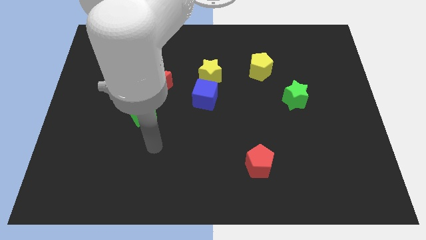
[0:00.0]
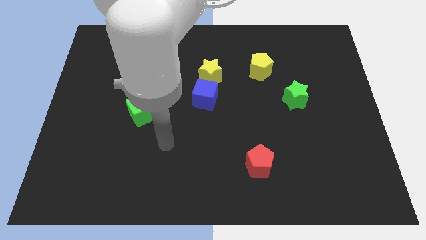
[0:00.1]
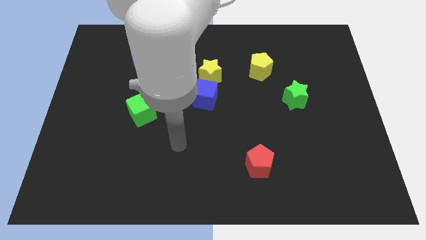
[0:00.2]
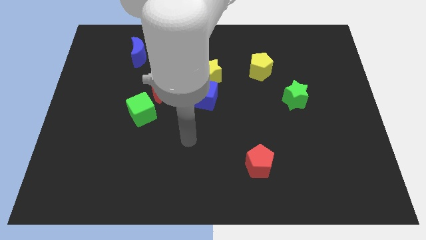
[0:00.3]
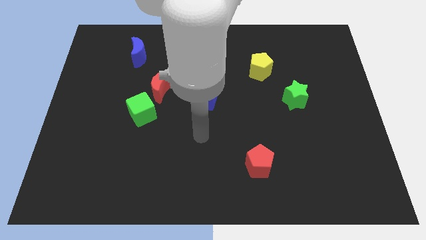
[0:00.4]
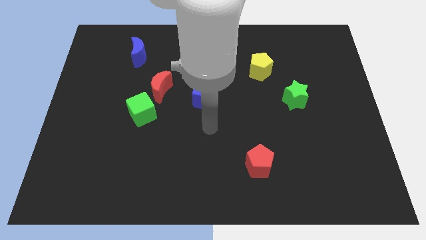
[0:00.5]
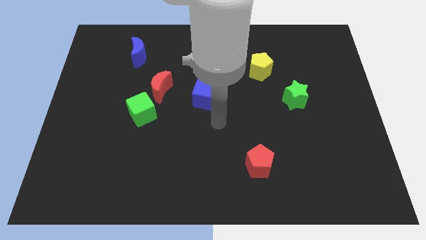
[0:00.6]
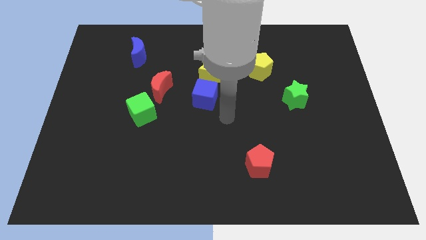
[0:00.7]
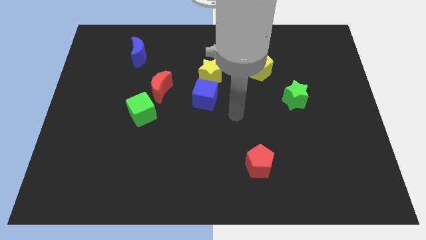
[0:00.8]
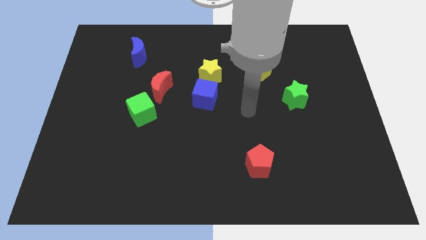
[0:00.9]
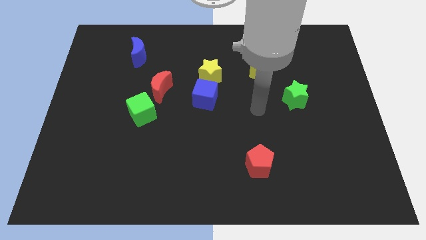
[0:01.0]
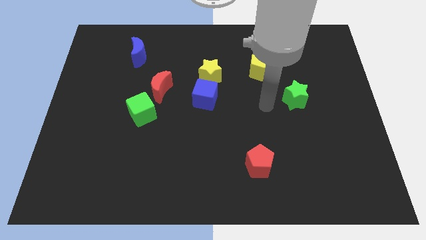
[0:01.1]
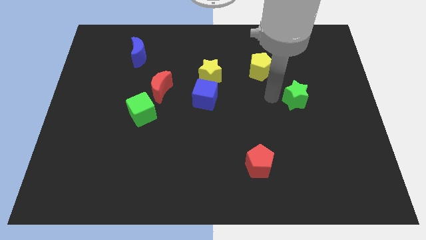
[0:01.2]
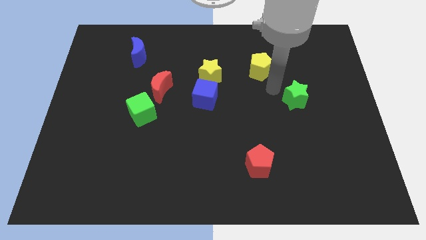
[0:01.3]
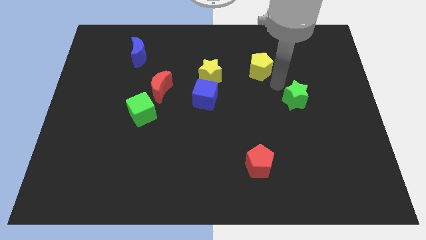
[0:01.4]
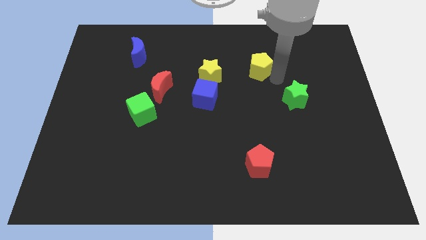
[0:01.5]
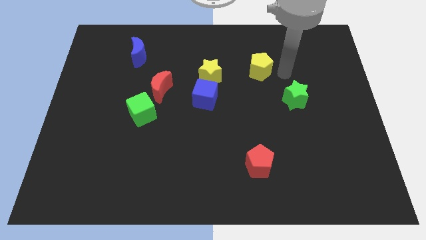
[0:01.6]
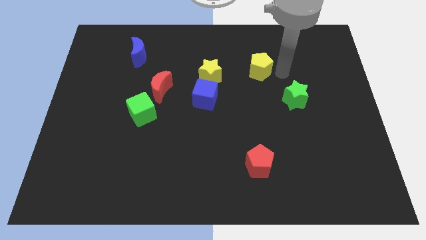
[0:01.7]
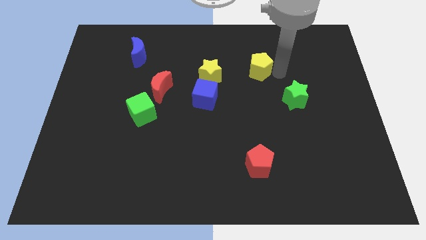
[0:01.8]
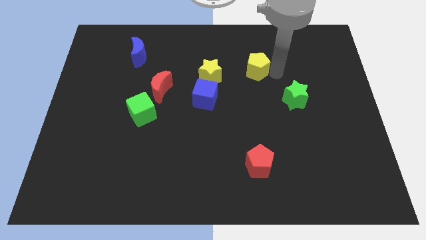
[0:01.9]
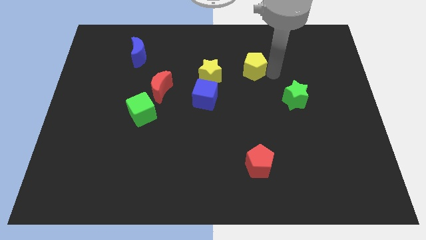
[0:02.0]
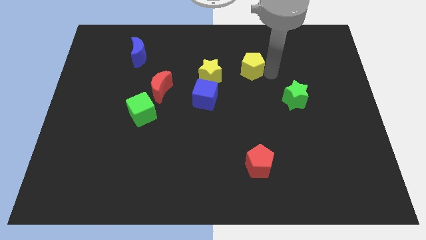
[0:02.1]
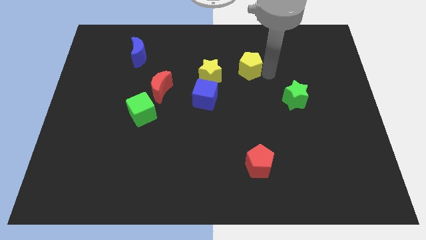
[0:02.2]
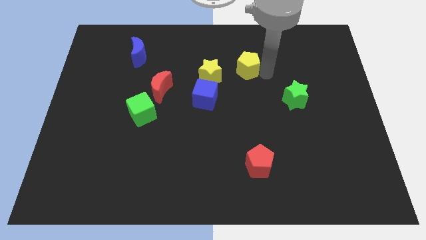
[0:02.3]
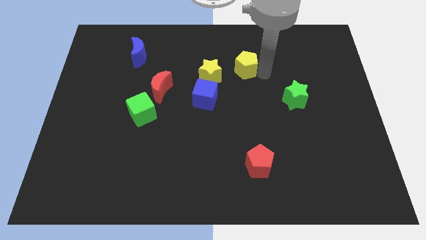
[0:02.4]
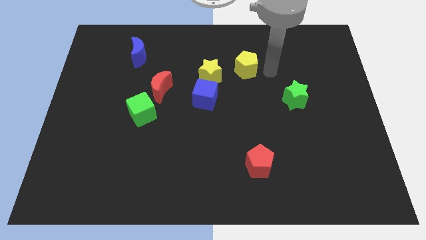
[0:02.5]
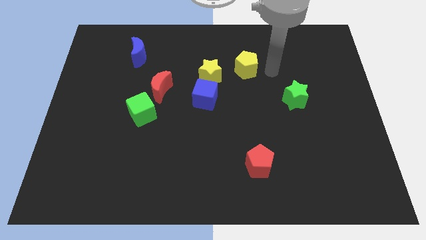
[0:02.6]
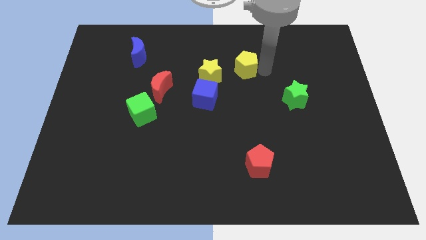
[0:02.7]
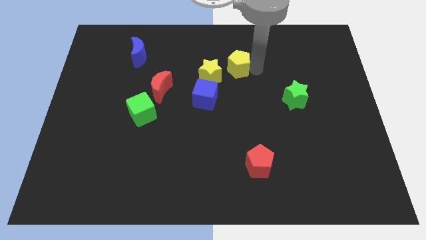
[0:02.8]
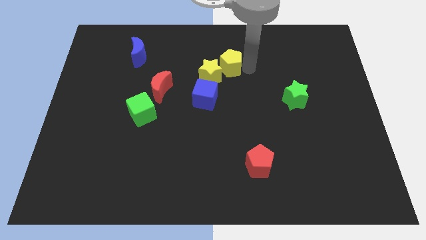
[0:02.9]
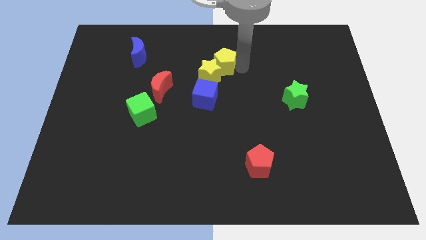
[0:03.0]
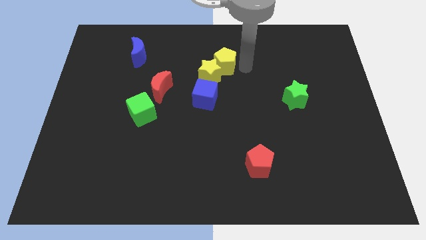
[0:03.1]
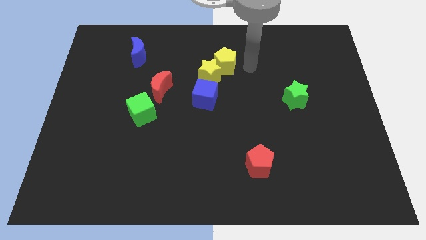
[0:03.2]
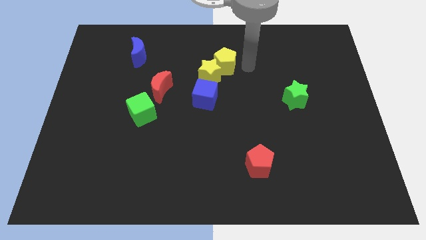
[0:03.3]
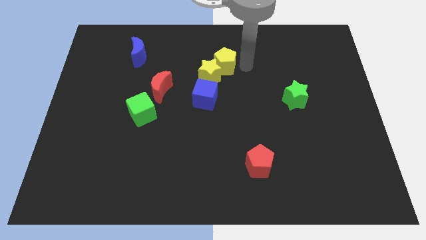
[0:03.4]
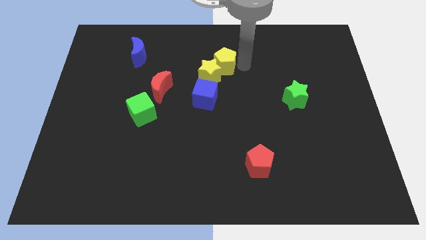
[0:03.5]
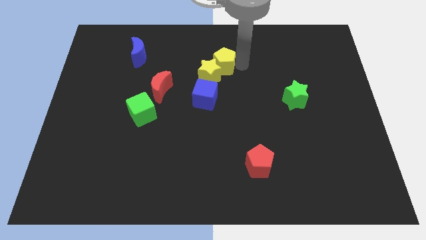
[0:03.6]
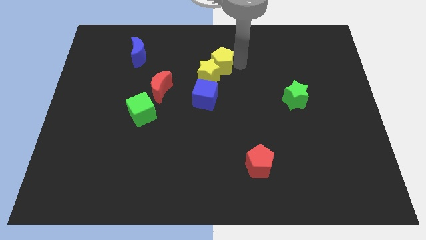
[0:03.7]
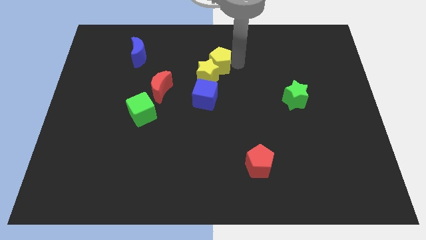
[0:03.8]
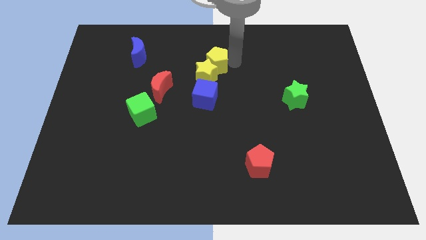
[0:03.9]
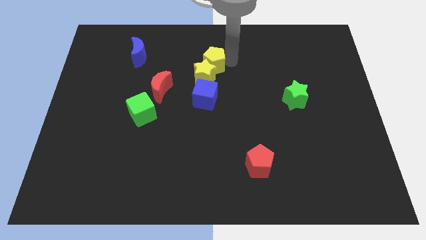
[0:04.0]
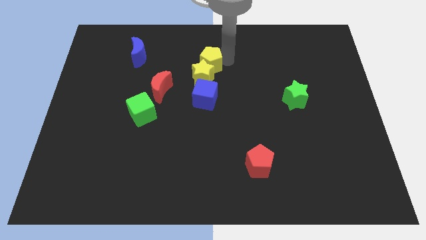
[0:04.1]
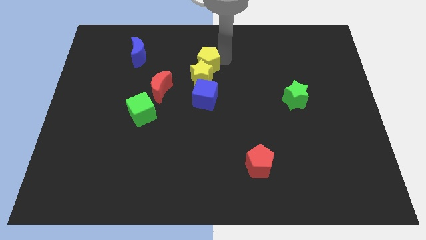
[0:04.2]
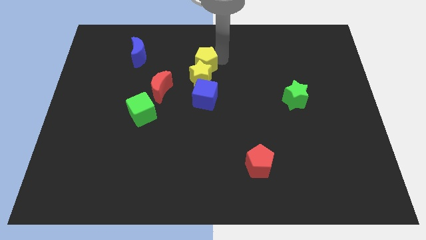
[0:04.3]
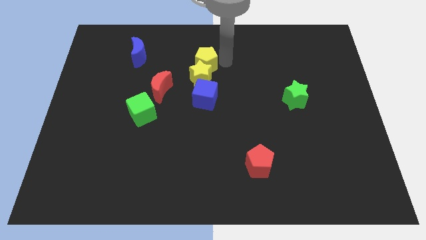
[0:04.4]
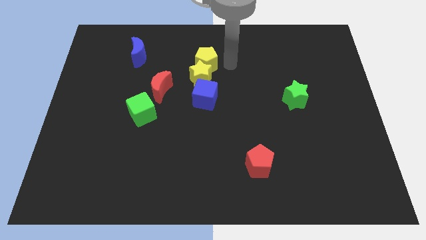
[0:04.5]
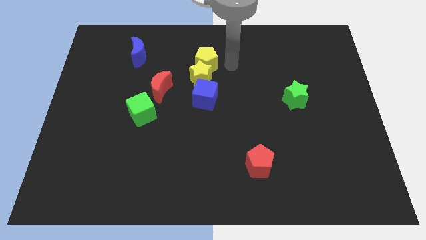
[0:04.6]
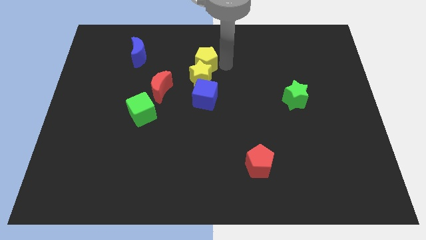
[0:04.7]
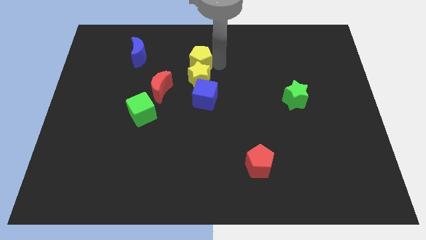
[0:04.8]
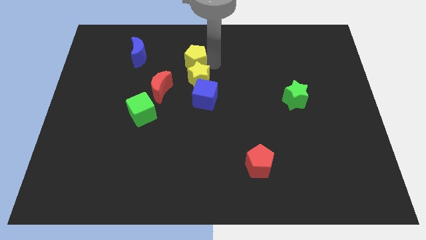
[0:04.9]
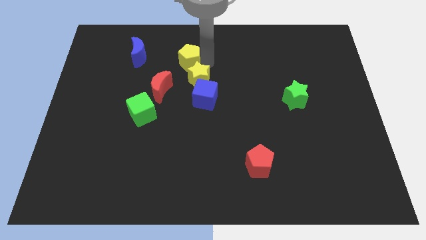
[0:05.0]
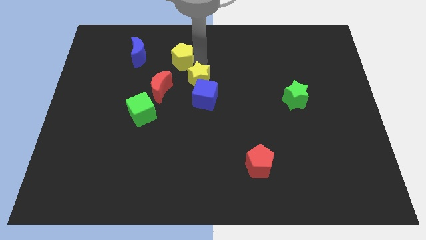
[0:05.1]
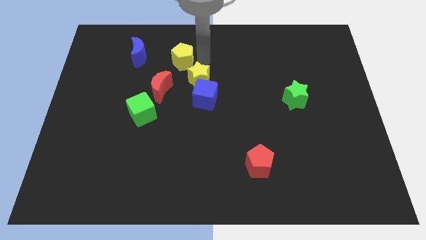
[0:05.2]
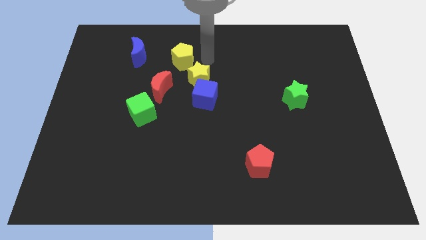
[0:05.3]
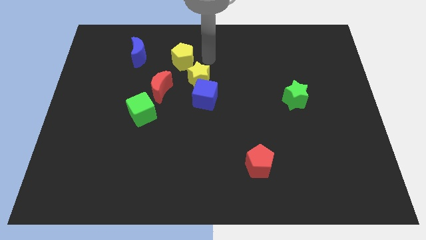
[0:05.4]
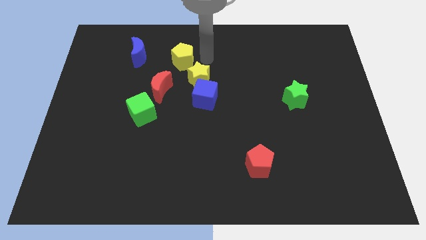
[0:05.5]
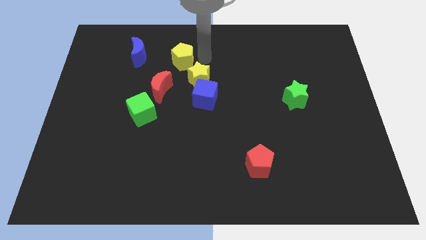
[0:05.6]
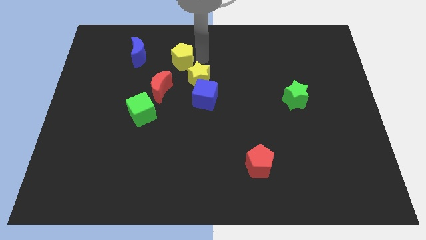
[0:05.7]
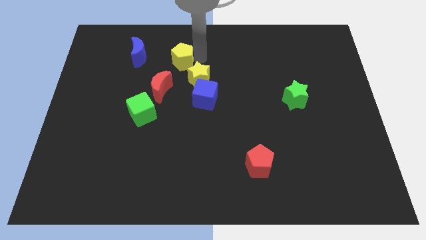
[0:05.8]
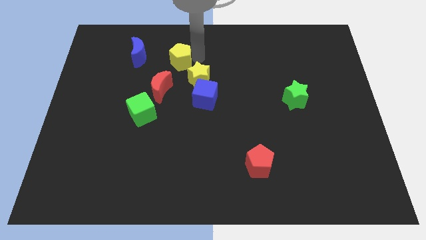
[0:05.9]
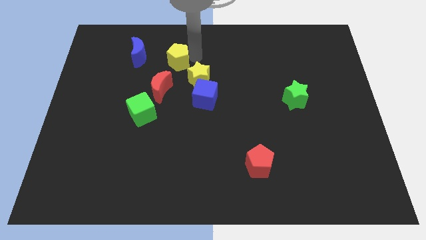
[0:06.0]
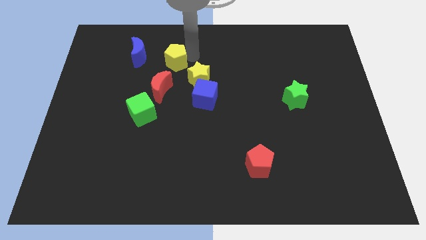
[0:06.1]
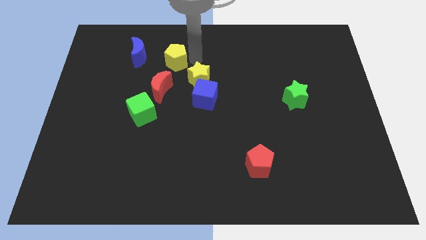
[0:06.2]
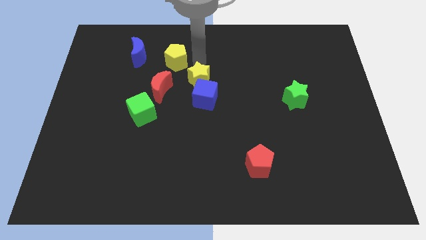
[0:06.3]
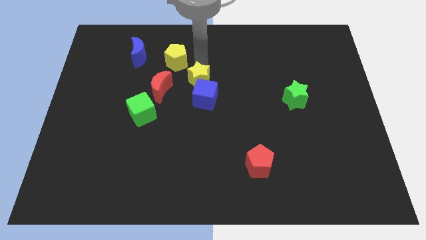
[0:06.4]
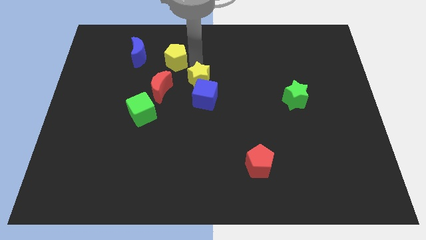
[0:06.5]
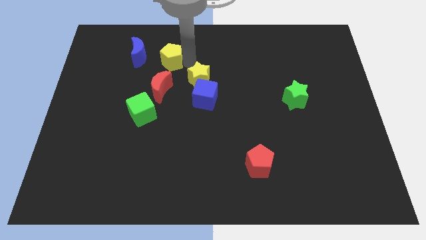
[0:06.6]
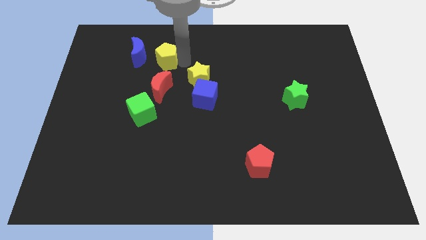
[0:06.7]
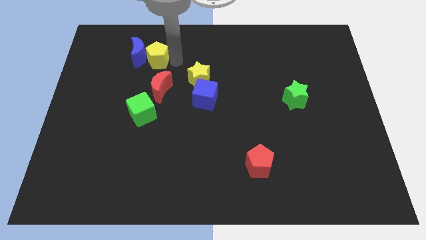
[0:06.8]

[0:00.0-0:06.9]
slide the yellow pentagon close to the blue moon

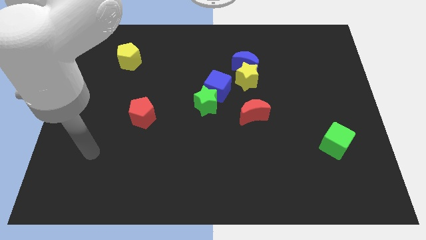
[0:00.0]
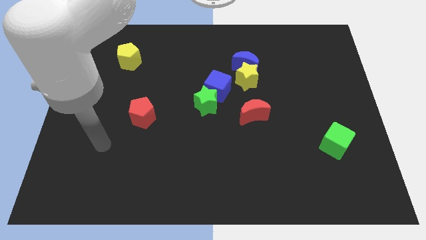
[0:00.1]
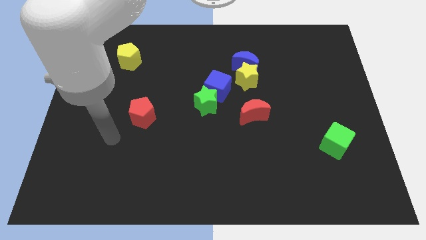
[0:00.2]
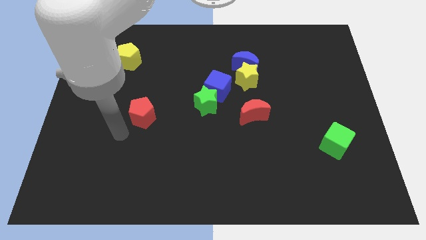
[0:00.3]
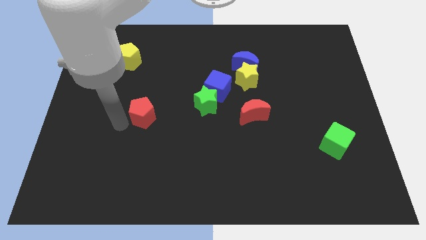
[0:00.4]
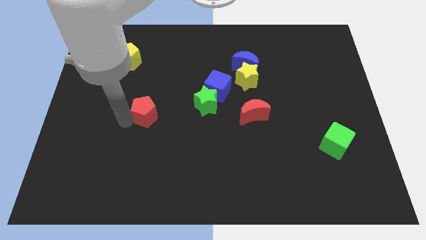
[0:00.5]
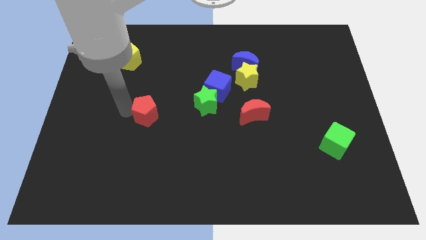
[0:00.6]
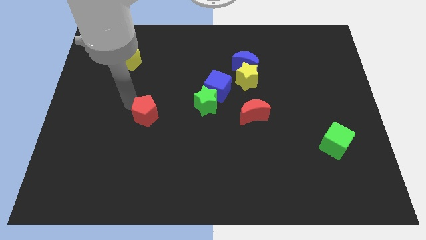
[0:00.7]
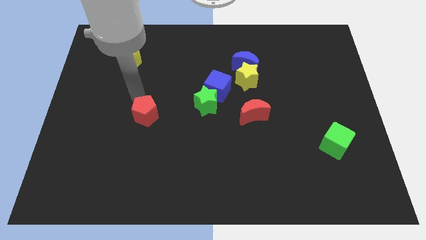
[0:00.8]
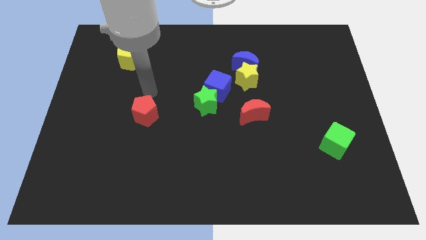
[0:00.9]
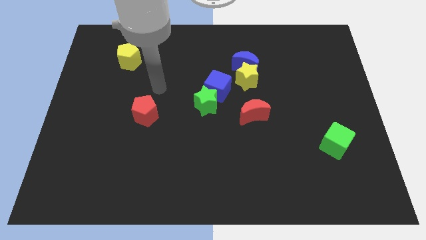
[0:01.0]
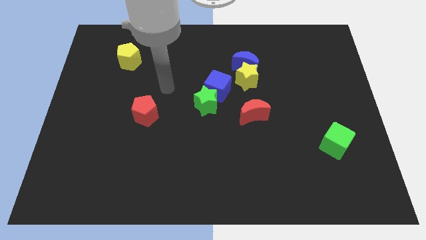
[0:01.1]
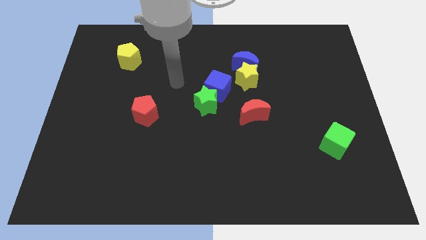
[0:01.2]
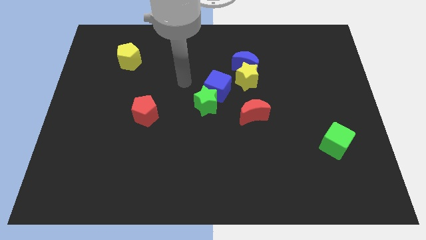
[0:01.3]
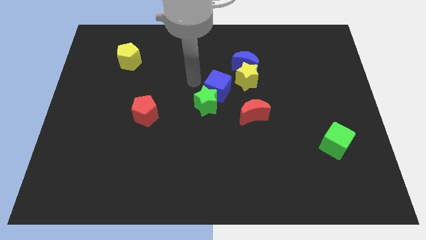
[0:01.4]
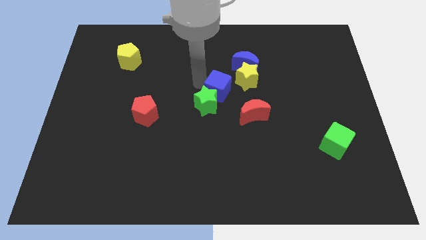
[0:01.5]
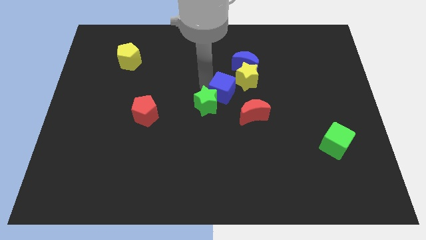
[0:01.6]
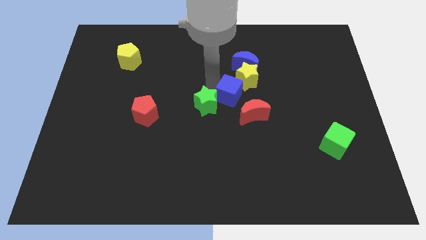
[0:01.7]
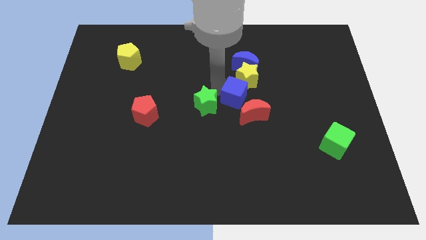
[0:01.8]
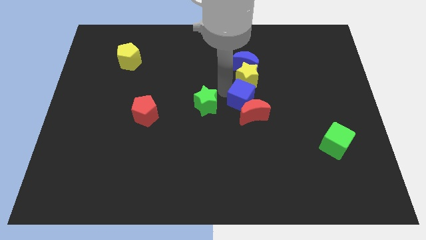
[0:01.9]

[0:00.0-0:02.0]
push the blue cube towards the red moon
